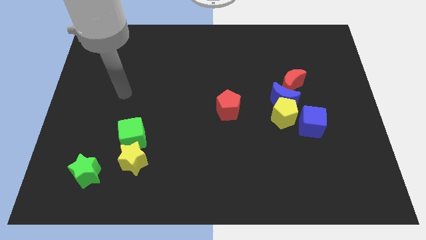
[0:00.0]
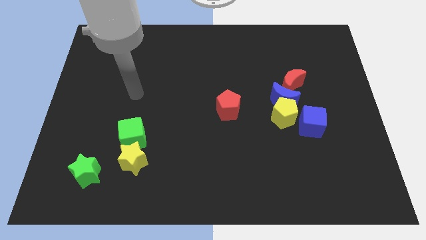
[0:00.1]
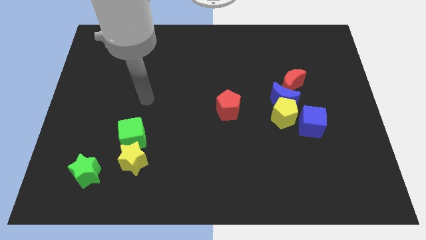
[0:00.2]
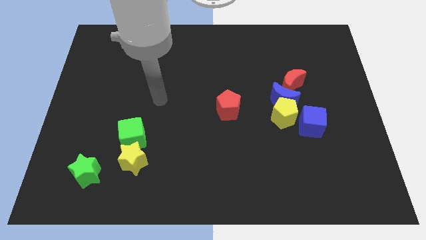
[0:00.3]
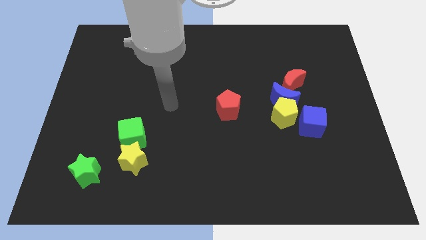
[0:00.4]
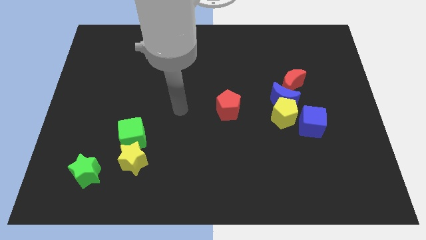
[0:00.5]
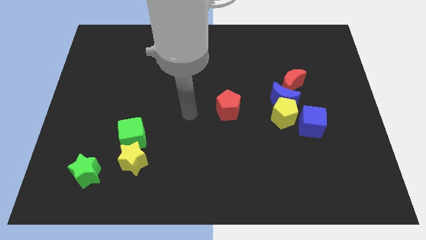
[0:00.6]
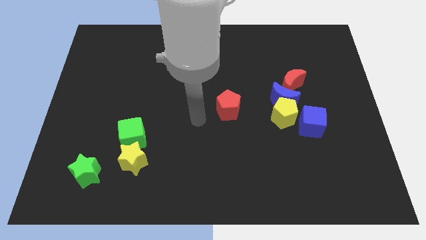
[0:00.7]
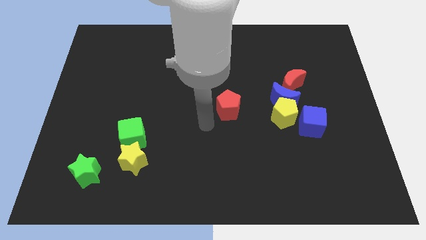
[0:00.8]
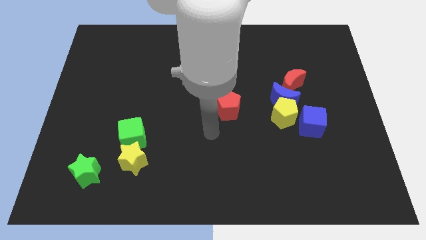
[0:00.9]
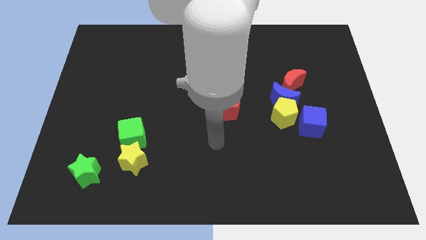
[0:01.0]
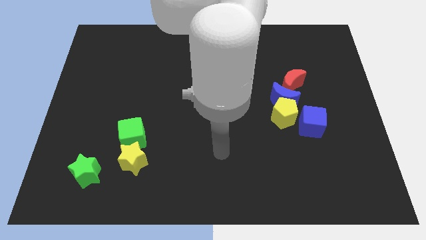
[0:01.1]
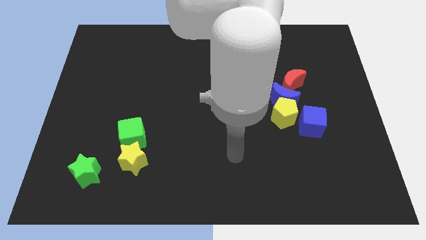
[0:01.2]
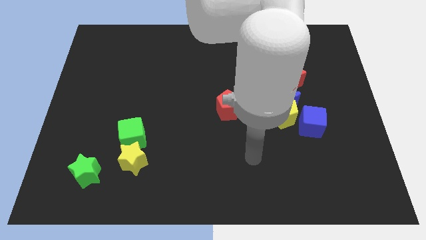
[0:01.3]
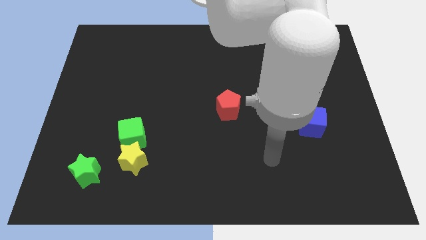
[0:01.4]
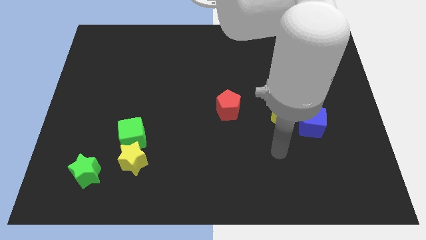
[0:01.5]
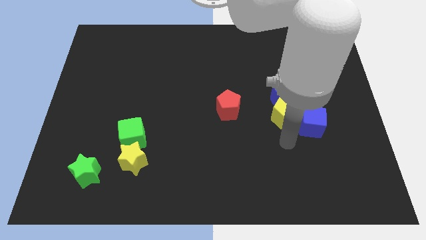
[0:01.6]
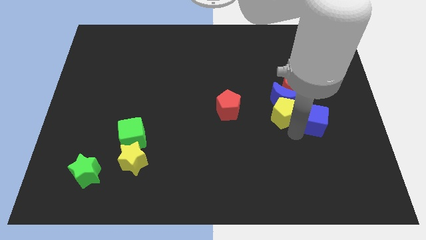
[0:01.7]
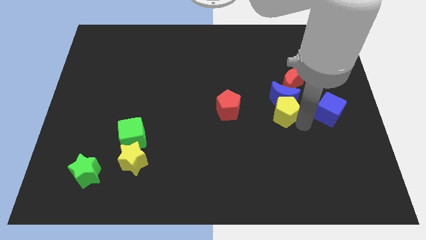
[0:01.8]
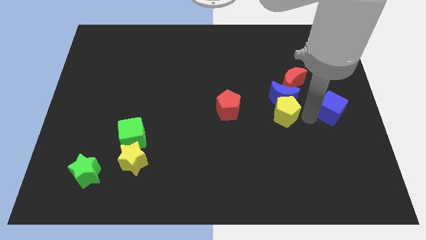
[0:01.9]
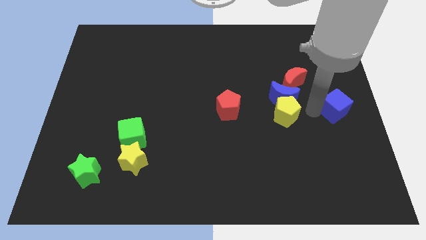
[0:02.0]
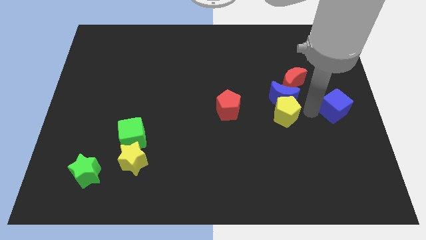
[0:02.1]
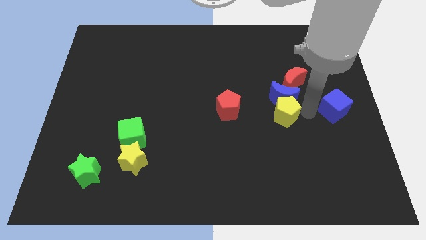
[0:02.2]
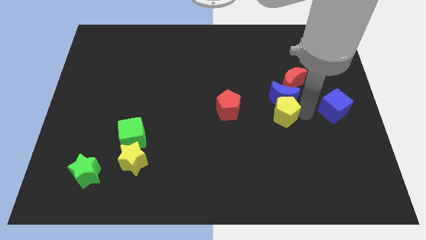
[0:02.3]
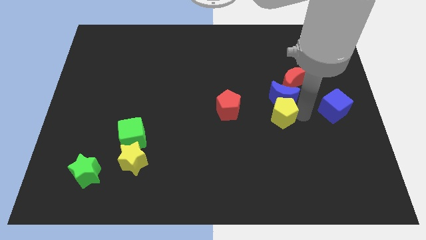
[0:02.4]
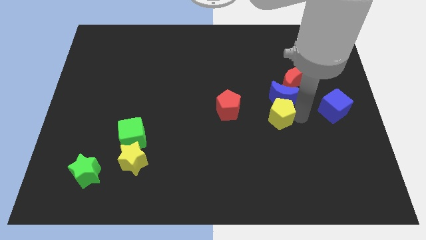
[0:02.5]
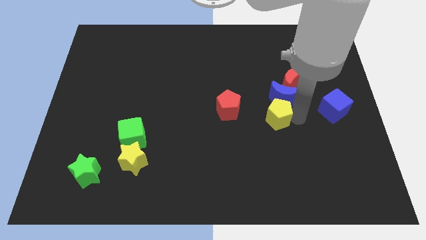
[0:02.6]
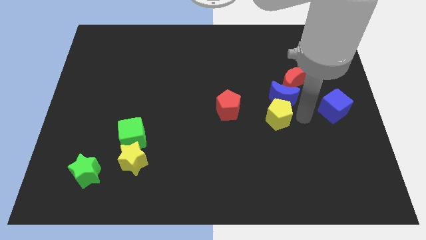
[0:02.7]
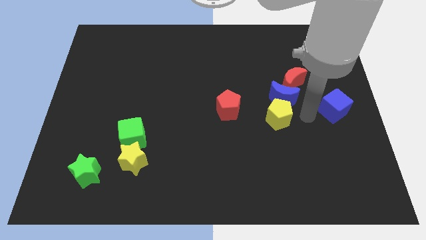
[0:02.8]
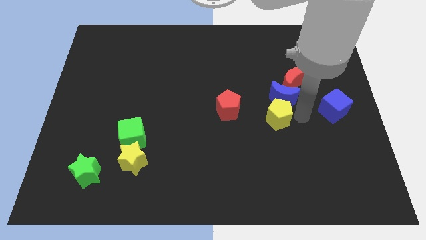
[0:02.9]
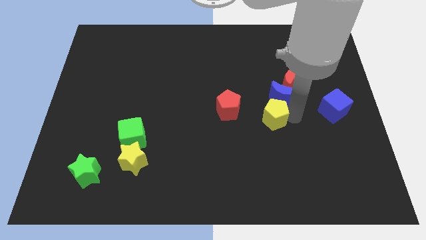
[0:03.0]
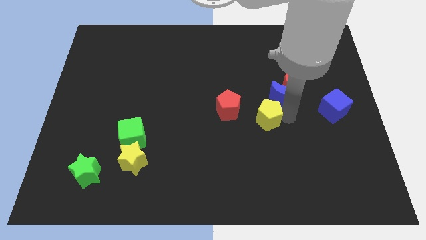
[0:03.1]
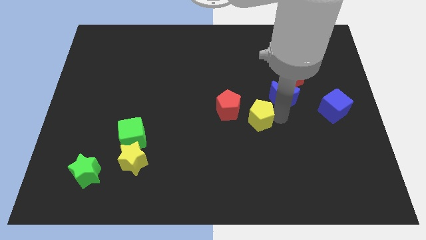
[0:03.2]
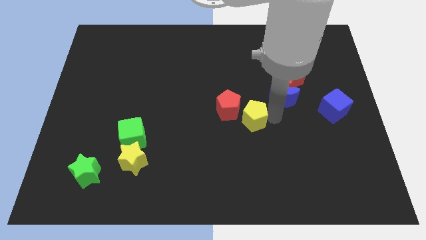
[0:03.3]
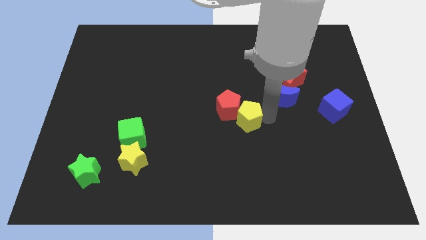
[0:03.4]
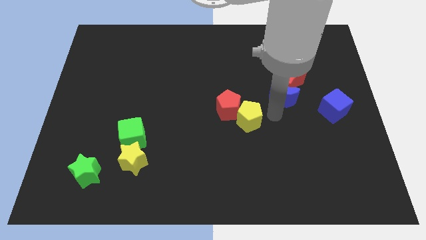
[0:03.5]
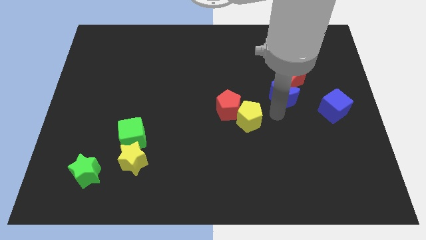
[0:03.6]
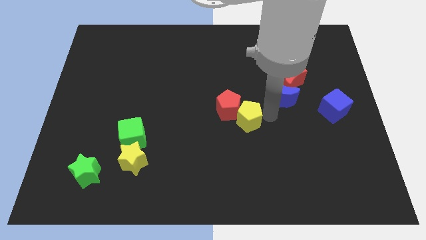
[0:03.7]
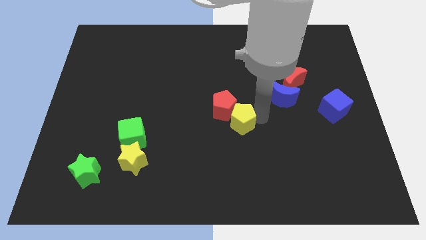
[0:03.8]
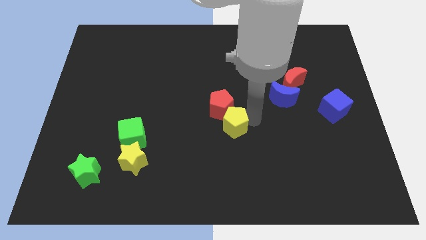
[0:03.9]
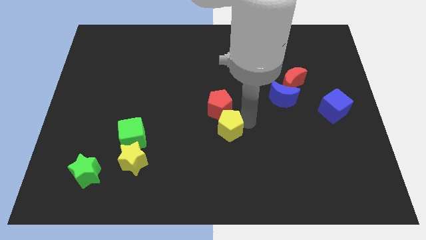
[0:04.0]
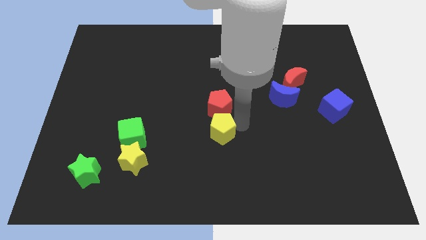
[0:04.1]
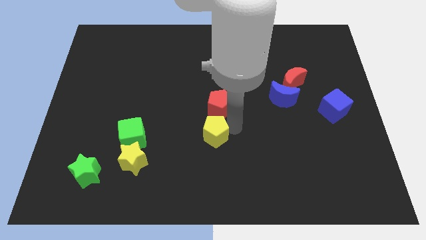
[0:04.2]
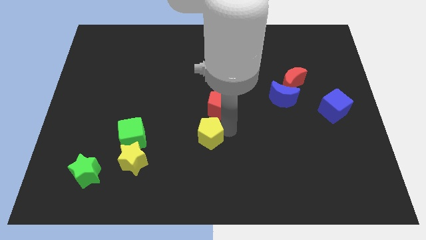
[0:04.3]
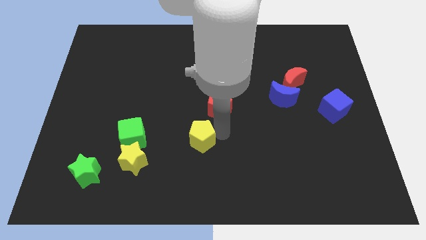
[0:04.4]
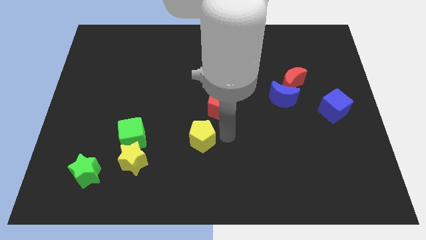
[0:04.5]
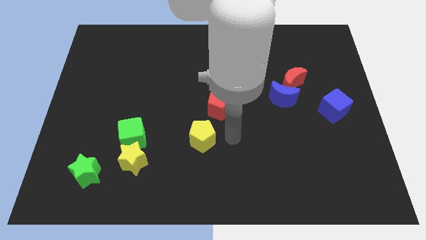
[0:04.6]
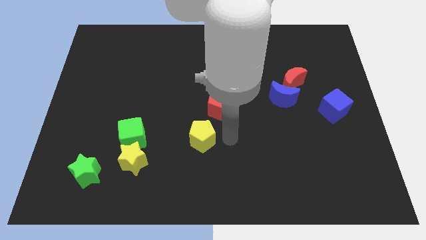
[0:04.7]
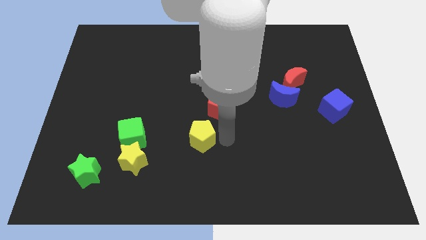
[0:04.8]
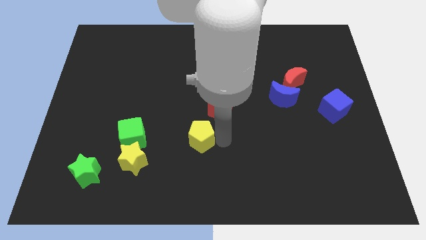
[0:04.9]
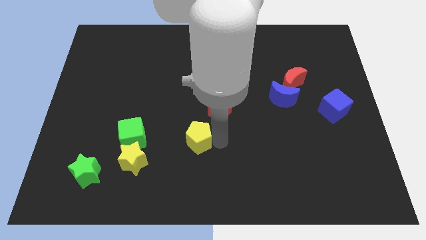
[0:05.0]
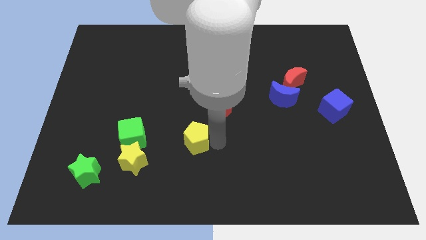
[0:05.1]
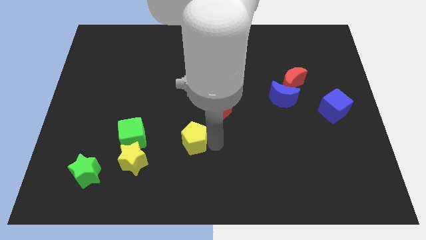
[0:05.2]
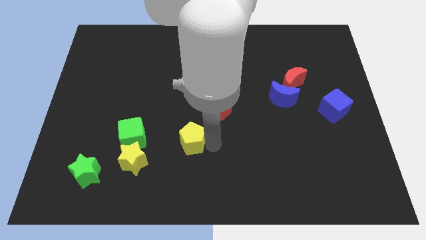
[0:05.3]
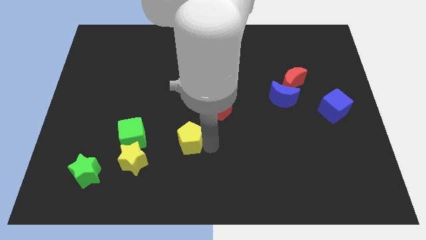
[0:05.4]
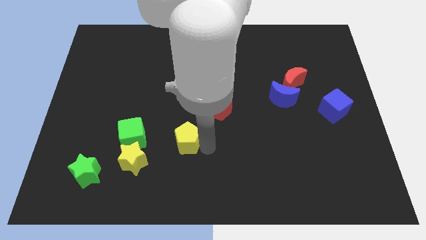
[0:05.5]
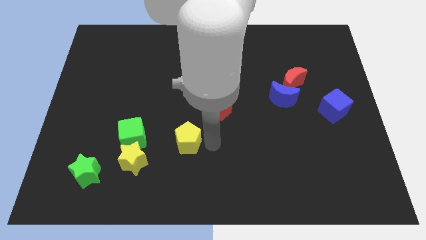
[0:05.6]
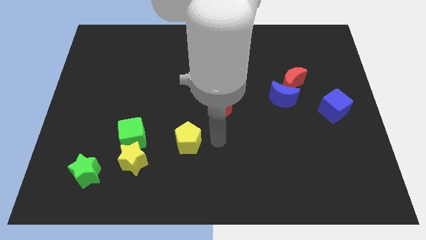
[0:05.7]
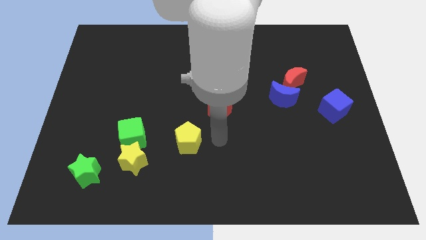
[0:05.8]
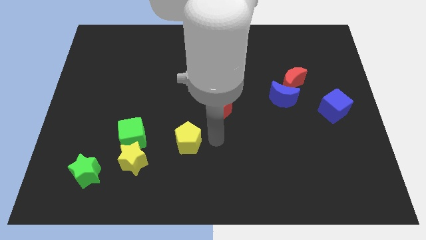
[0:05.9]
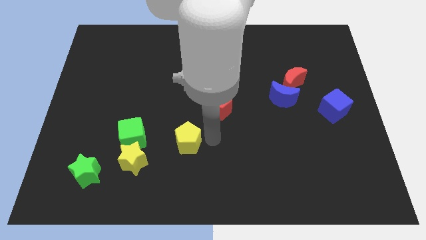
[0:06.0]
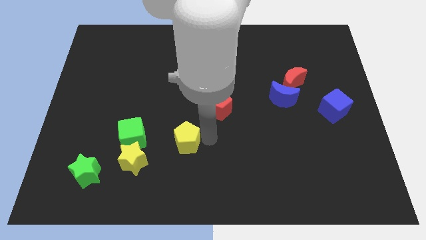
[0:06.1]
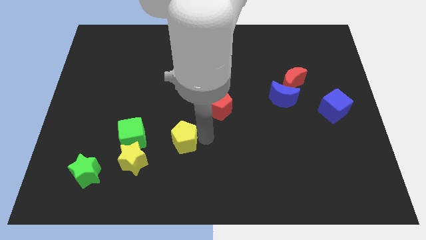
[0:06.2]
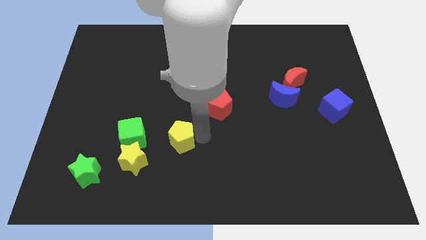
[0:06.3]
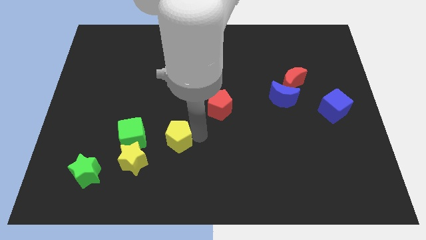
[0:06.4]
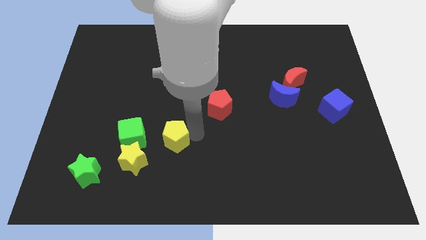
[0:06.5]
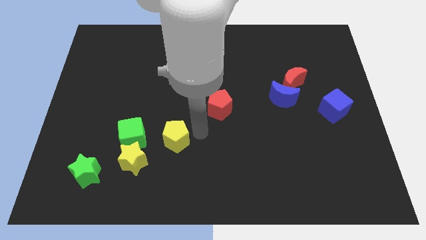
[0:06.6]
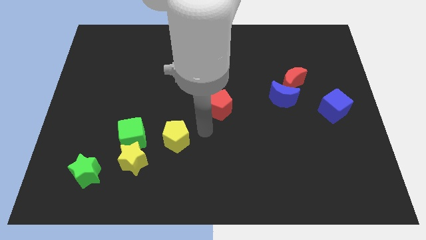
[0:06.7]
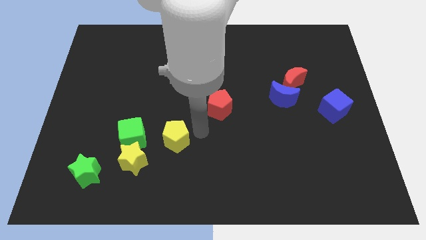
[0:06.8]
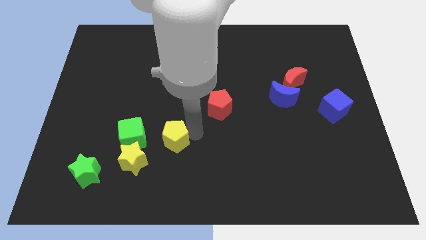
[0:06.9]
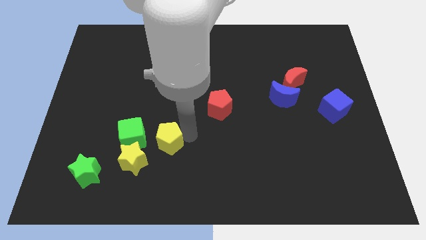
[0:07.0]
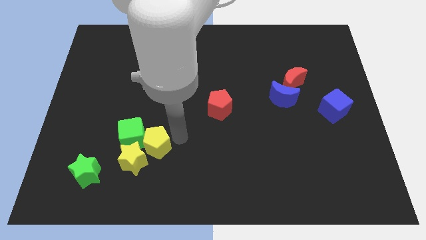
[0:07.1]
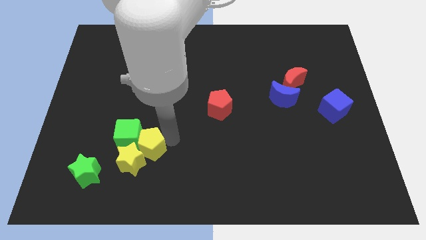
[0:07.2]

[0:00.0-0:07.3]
push the yellow pentagon to the yellow star

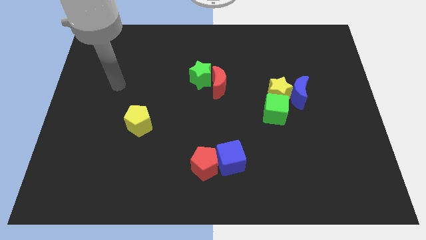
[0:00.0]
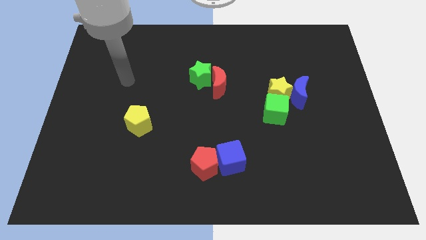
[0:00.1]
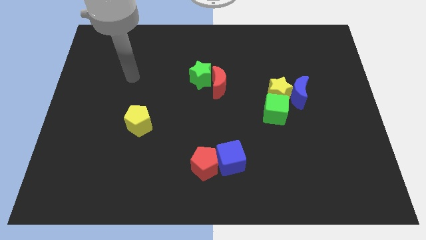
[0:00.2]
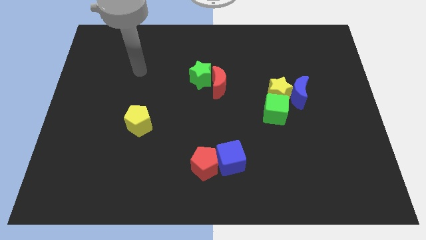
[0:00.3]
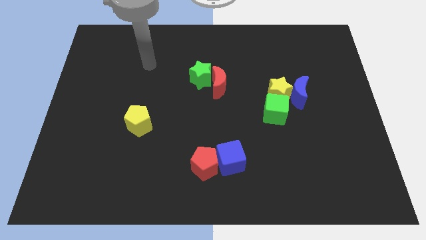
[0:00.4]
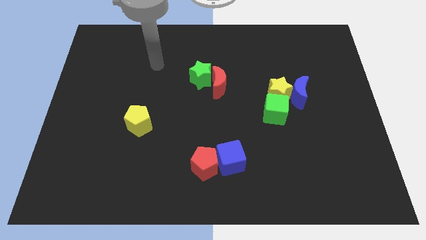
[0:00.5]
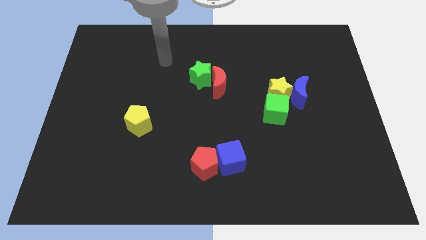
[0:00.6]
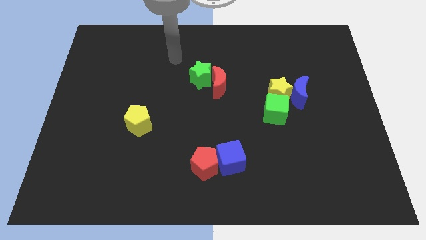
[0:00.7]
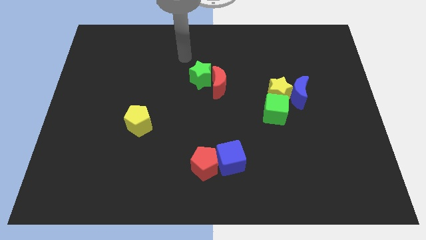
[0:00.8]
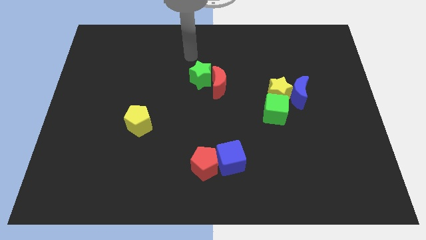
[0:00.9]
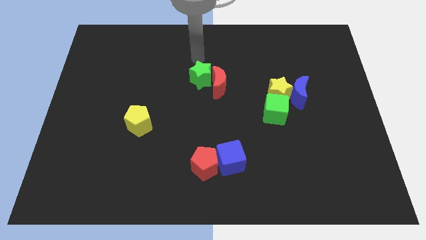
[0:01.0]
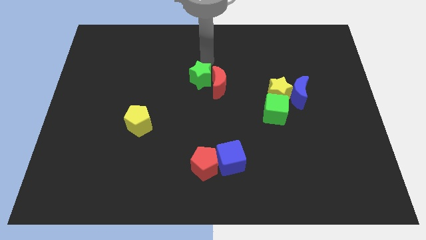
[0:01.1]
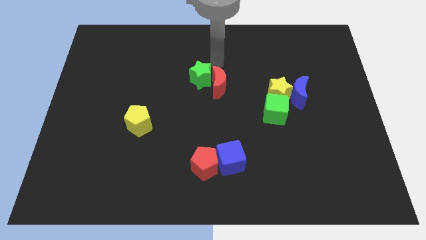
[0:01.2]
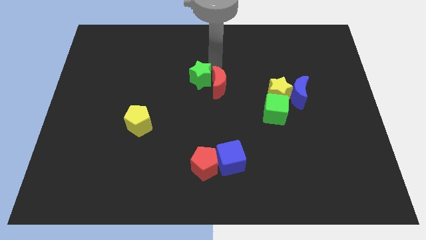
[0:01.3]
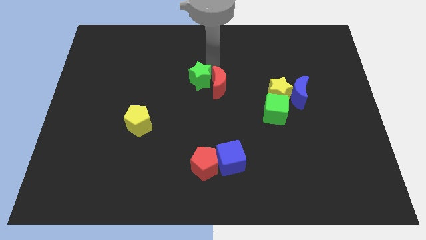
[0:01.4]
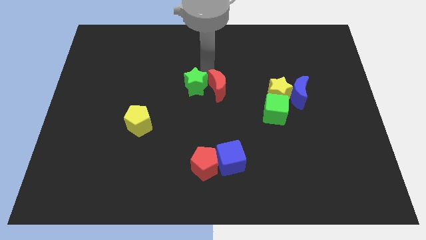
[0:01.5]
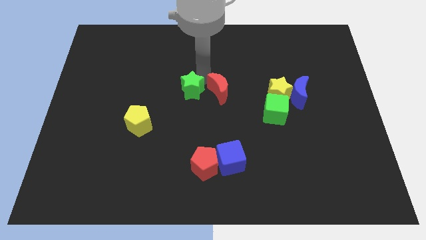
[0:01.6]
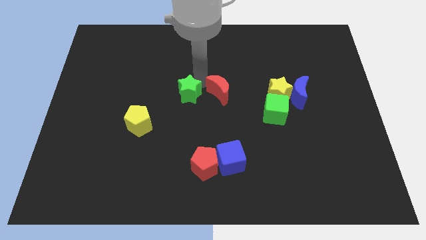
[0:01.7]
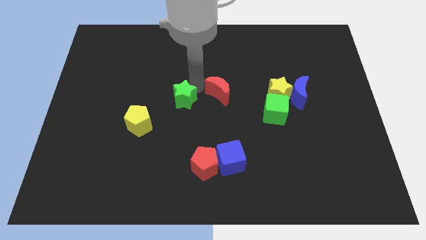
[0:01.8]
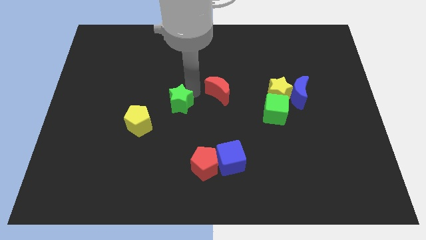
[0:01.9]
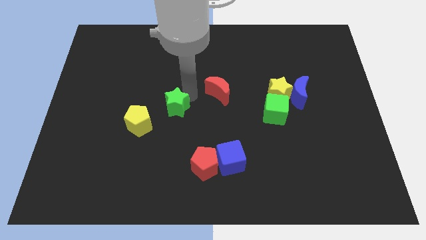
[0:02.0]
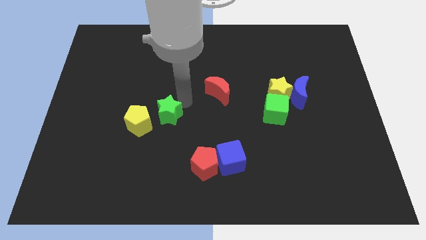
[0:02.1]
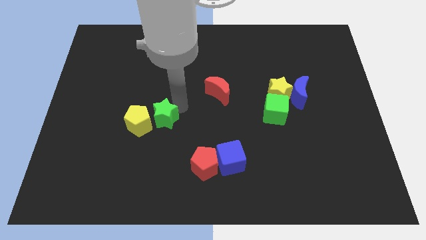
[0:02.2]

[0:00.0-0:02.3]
put the green star close to the yellow pentagon
